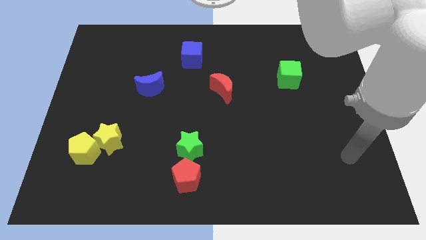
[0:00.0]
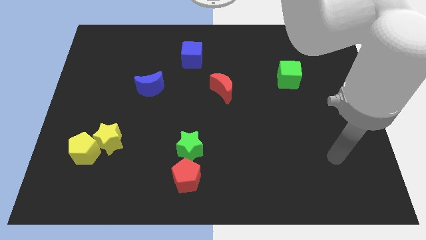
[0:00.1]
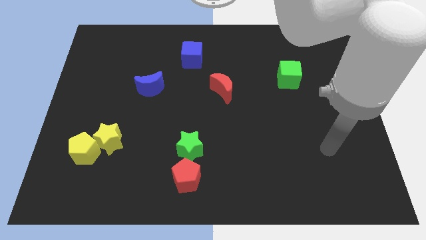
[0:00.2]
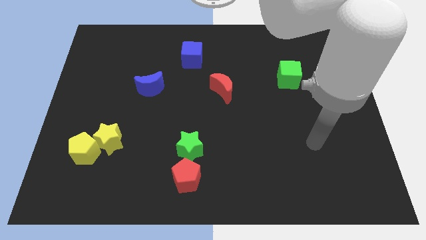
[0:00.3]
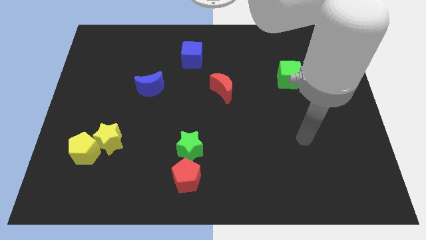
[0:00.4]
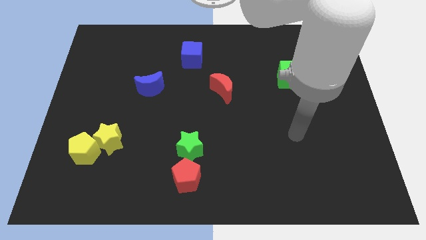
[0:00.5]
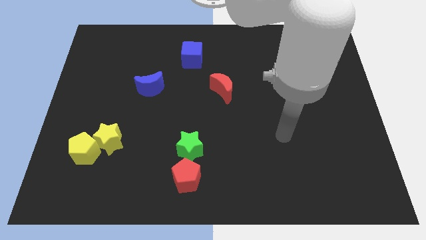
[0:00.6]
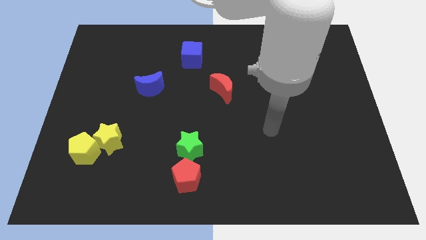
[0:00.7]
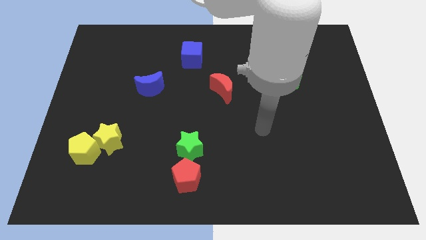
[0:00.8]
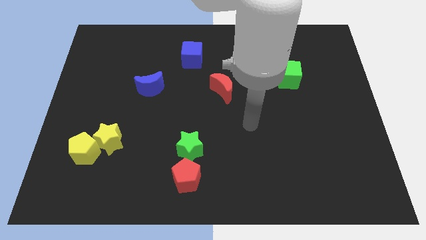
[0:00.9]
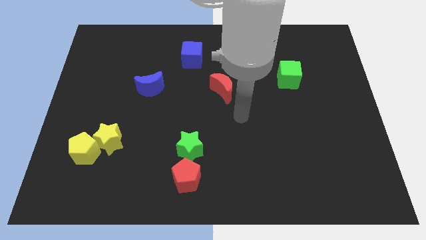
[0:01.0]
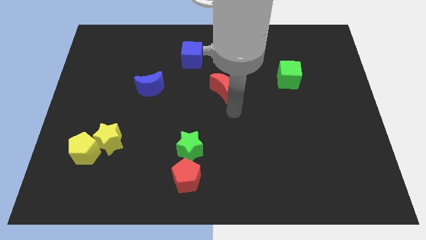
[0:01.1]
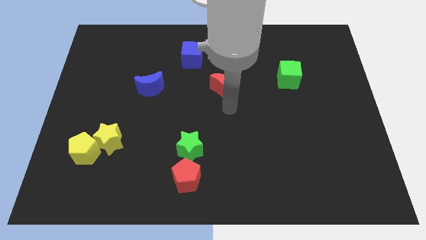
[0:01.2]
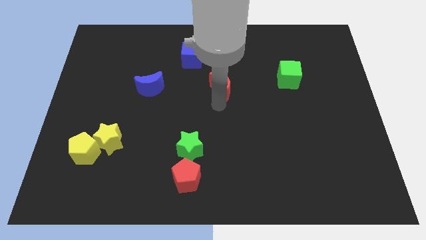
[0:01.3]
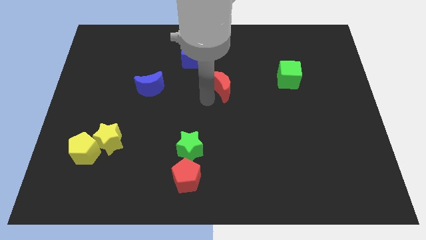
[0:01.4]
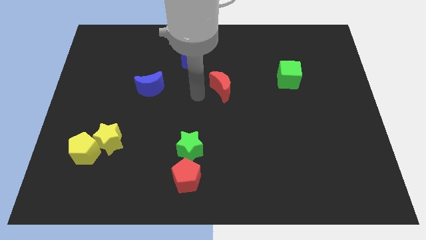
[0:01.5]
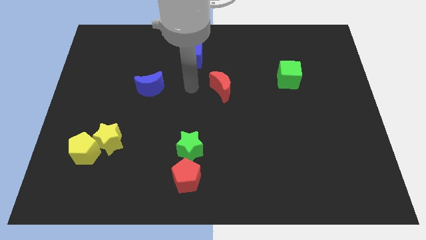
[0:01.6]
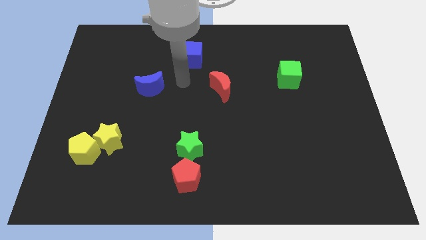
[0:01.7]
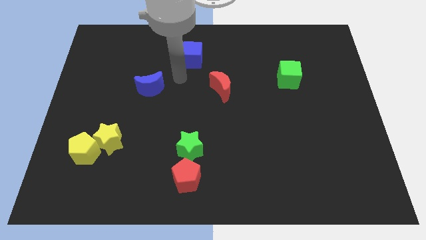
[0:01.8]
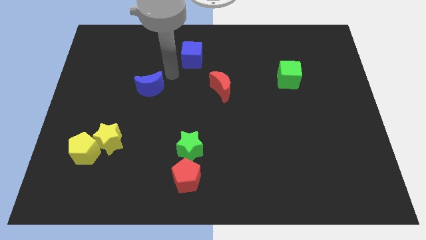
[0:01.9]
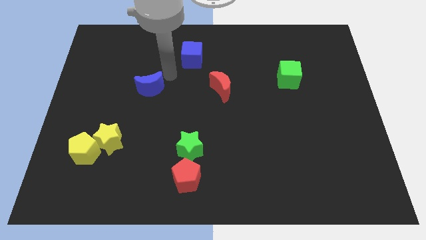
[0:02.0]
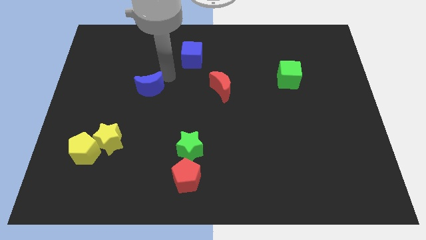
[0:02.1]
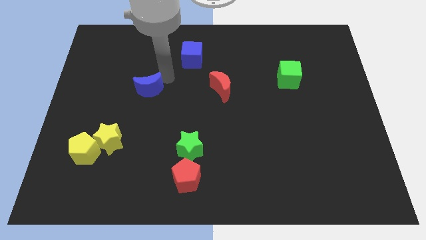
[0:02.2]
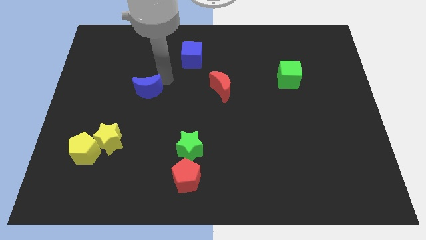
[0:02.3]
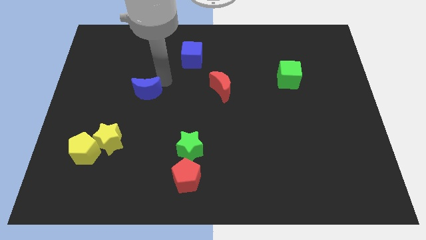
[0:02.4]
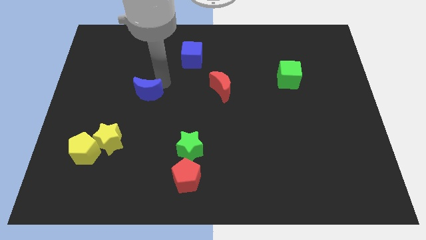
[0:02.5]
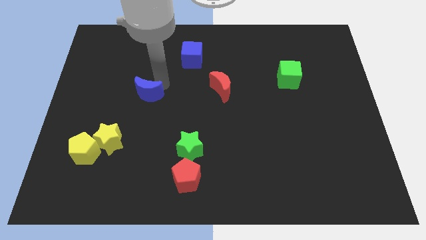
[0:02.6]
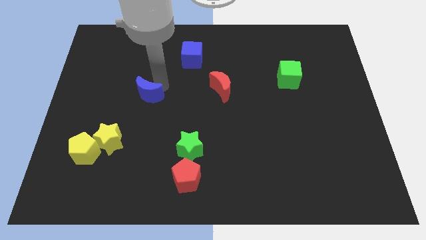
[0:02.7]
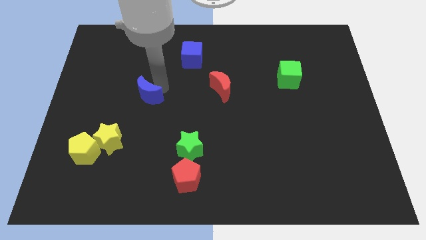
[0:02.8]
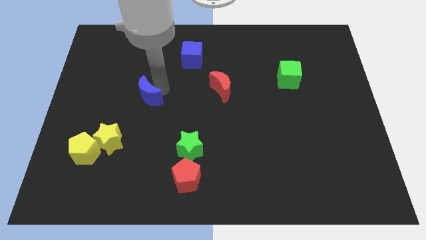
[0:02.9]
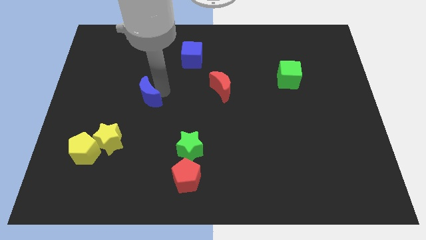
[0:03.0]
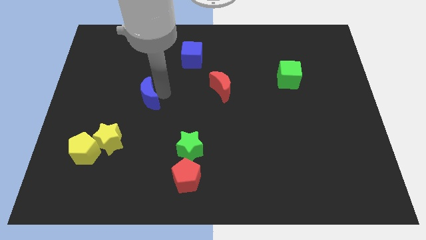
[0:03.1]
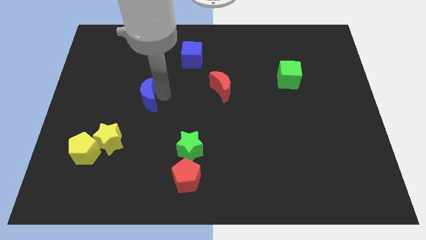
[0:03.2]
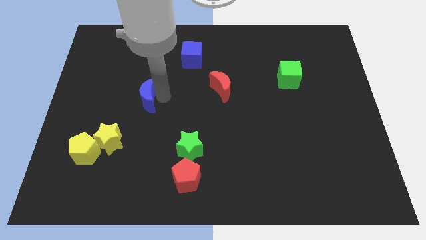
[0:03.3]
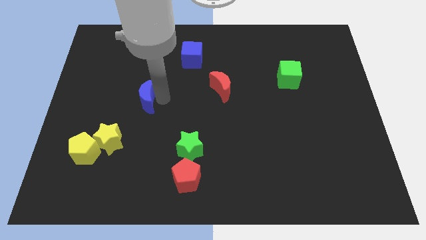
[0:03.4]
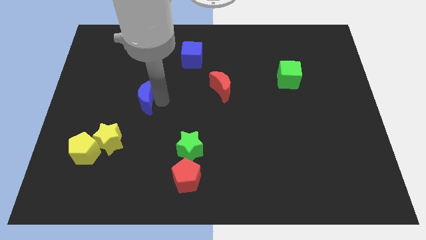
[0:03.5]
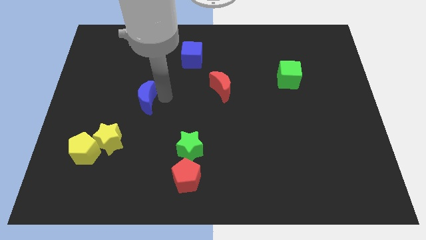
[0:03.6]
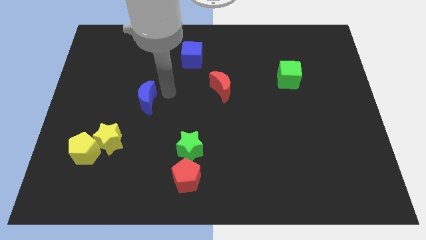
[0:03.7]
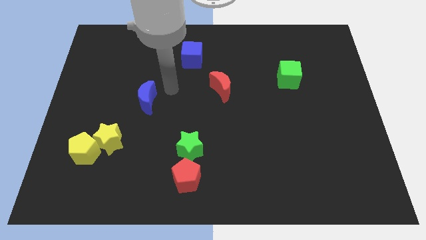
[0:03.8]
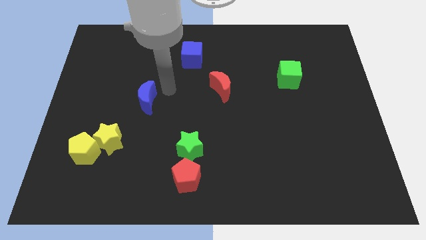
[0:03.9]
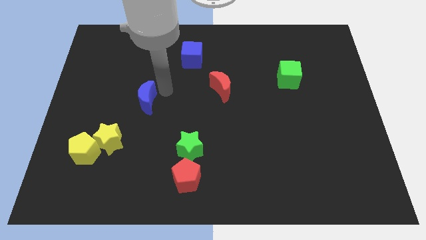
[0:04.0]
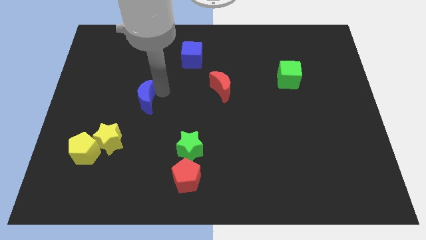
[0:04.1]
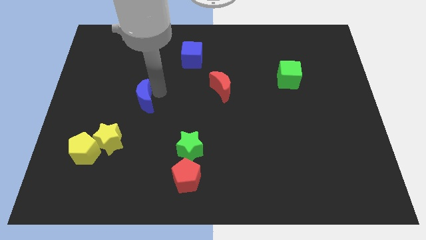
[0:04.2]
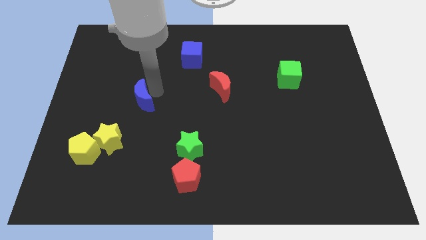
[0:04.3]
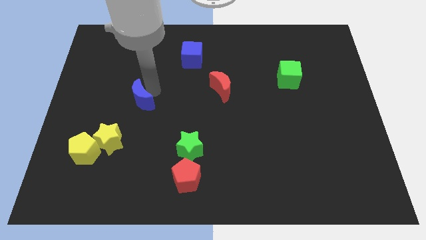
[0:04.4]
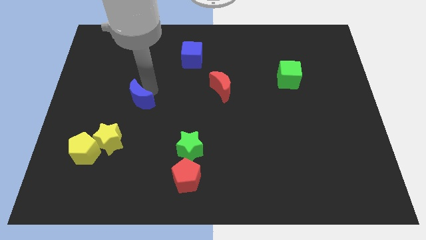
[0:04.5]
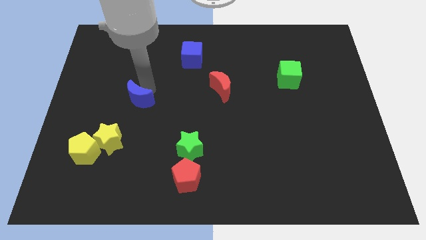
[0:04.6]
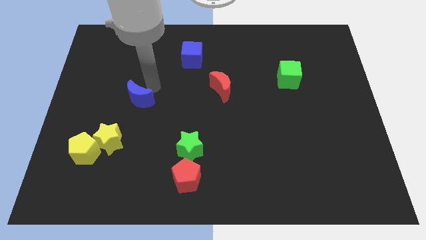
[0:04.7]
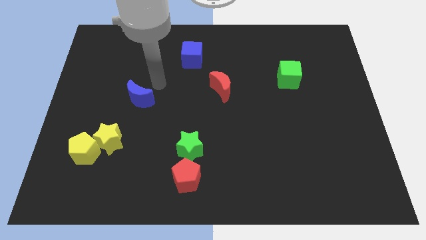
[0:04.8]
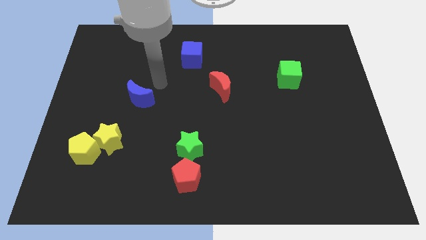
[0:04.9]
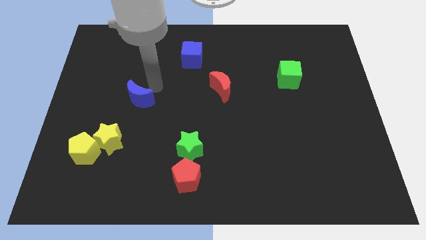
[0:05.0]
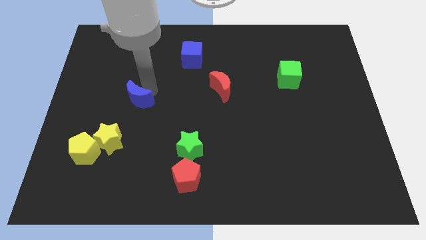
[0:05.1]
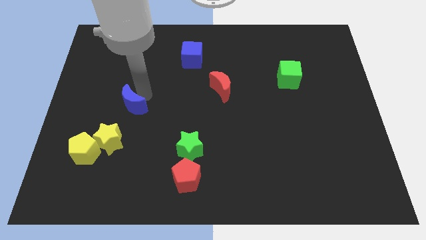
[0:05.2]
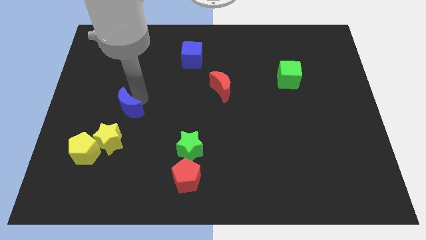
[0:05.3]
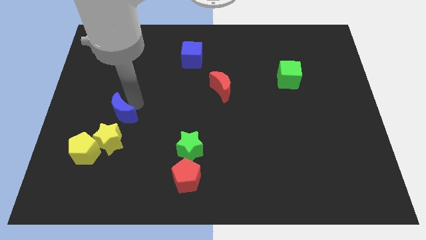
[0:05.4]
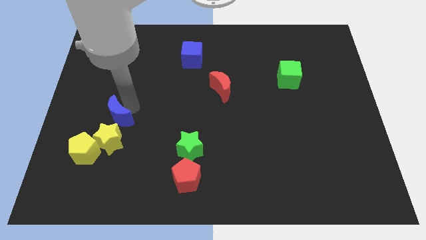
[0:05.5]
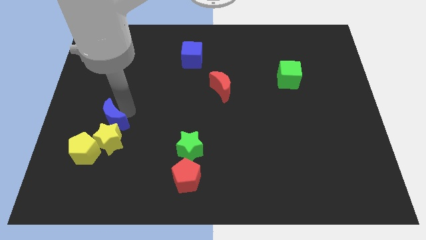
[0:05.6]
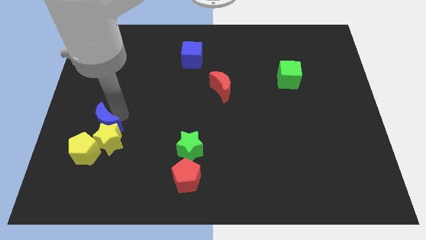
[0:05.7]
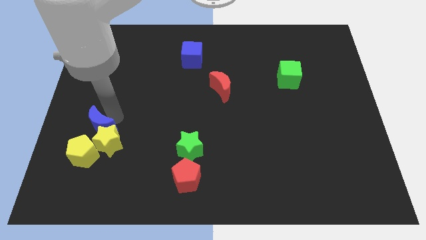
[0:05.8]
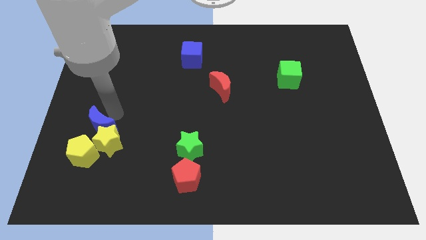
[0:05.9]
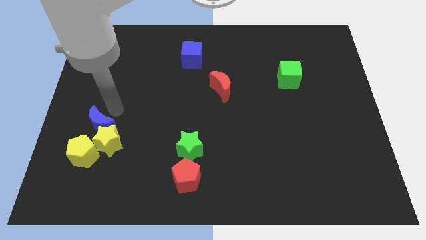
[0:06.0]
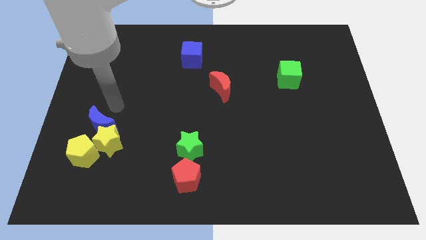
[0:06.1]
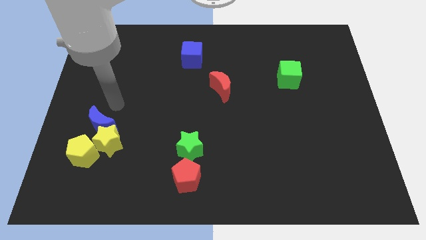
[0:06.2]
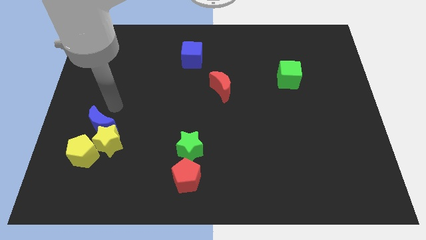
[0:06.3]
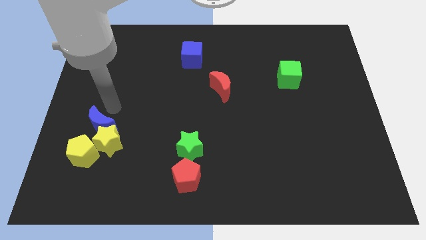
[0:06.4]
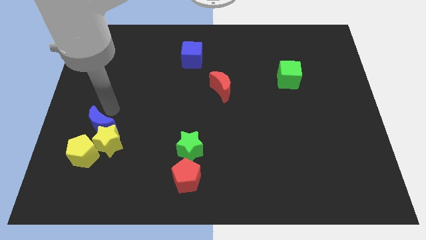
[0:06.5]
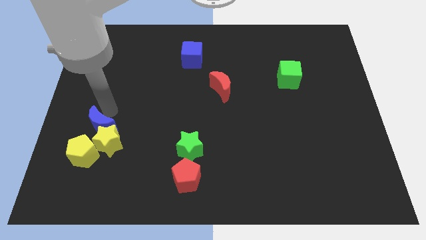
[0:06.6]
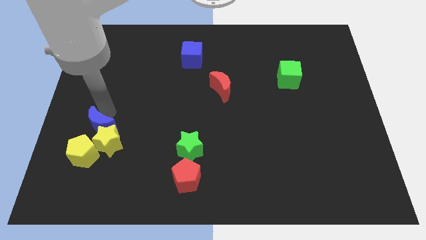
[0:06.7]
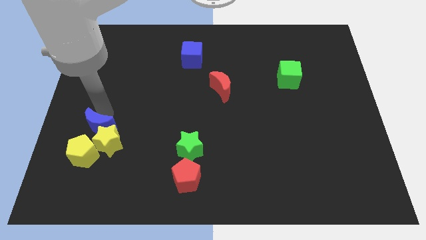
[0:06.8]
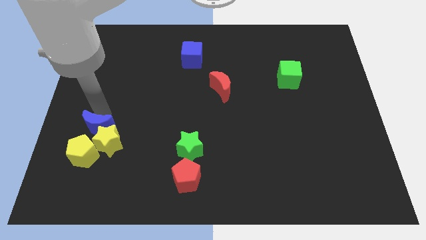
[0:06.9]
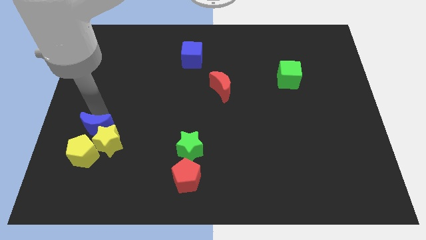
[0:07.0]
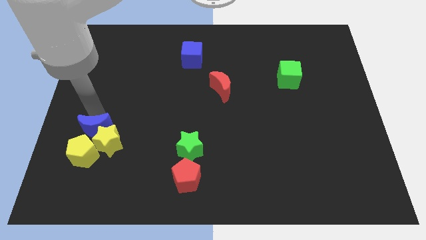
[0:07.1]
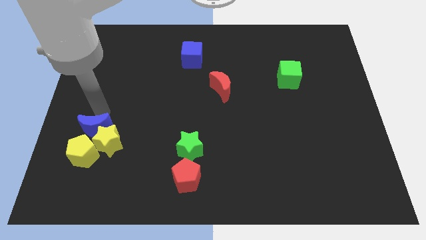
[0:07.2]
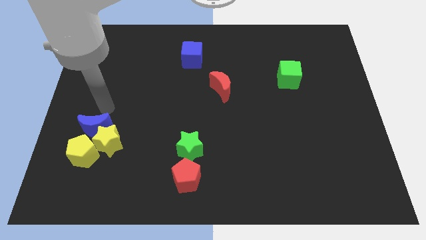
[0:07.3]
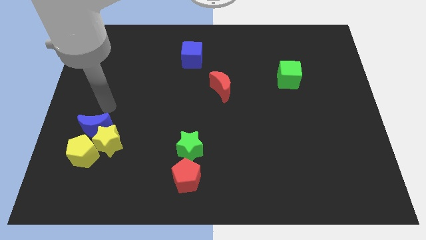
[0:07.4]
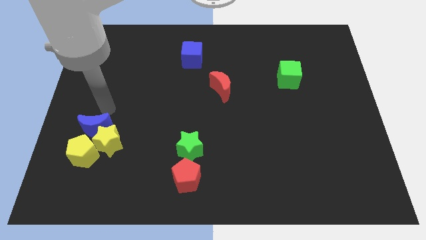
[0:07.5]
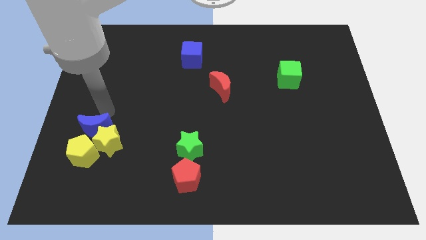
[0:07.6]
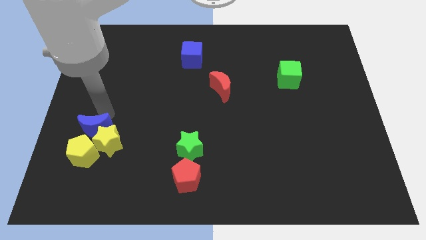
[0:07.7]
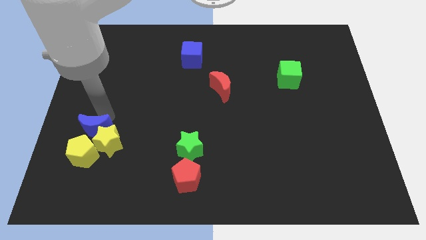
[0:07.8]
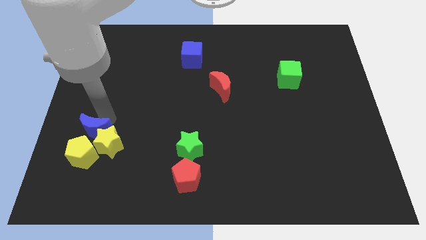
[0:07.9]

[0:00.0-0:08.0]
move the blue moon towards the yellow pentagon
